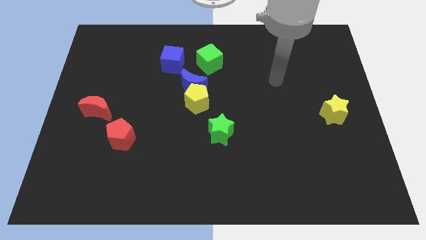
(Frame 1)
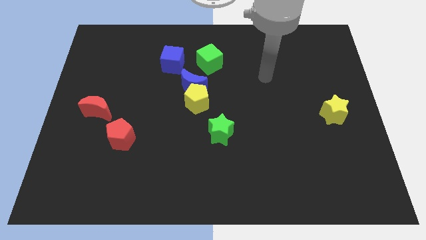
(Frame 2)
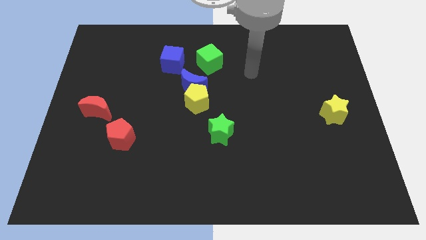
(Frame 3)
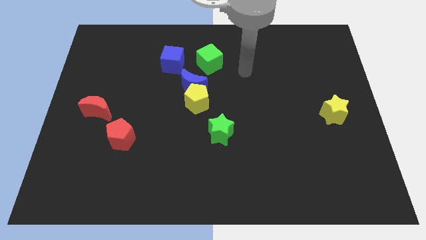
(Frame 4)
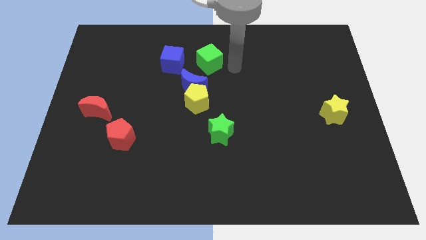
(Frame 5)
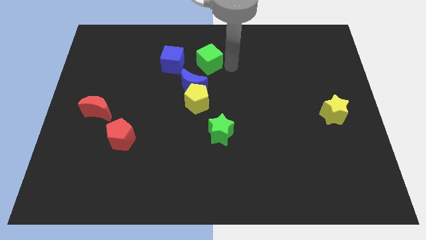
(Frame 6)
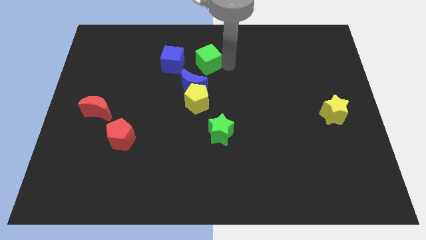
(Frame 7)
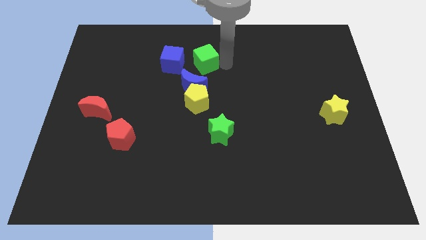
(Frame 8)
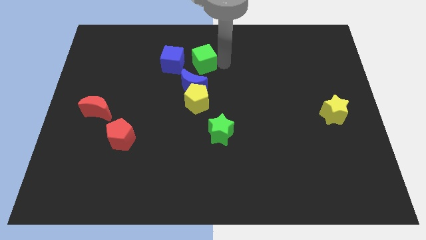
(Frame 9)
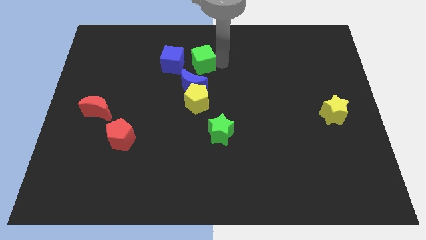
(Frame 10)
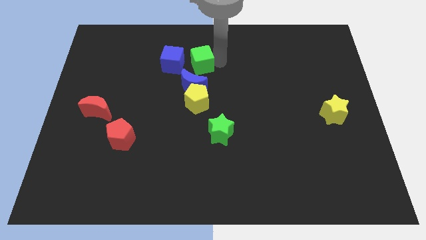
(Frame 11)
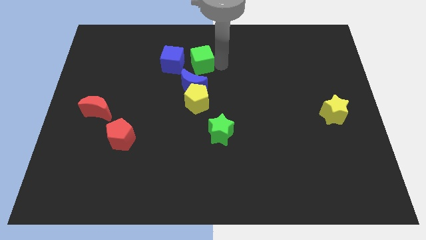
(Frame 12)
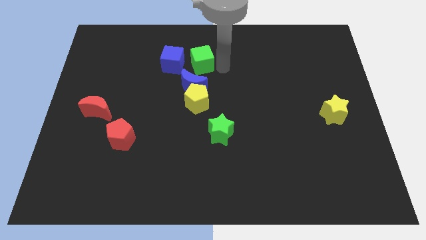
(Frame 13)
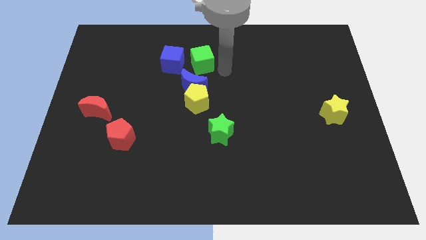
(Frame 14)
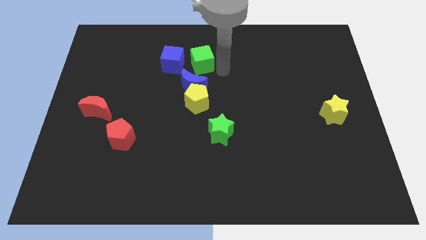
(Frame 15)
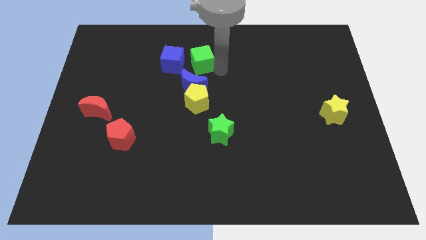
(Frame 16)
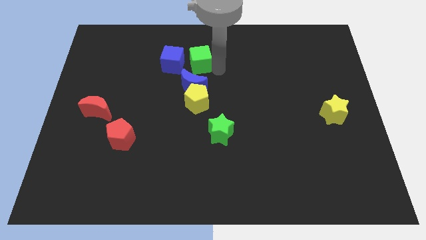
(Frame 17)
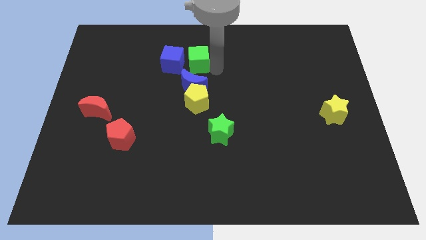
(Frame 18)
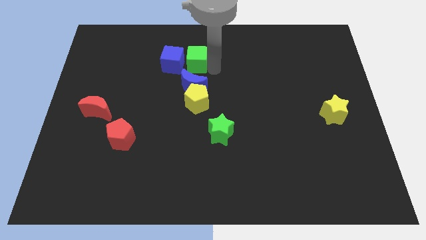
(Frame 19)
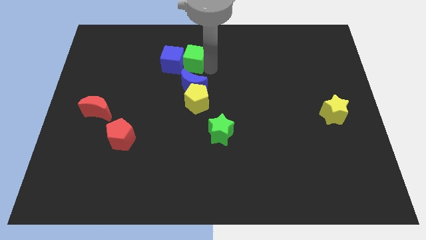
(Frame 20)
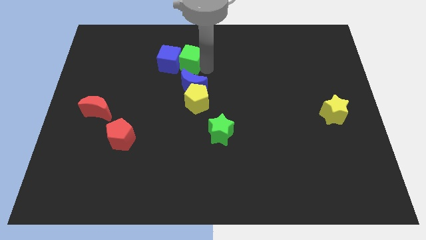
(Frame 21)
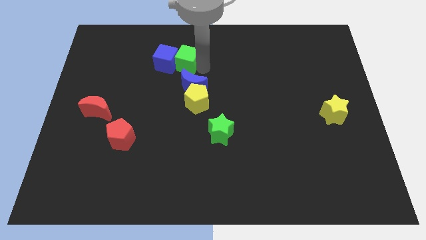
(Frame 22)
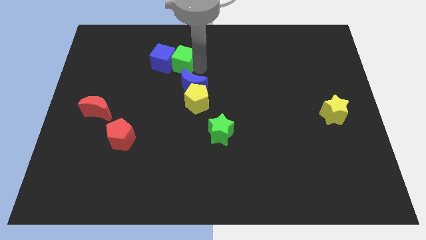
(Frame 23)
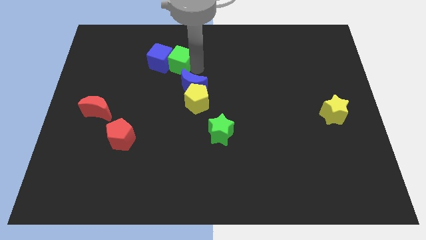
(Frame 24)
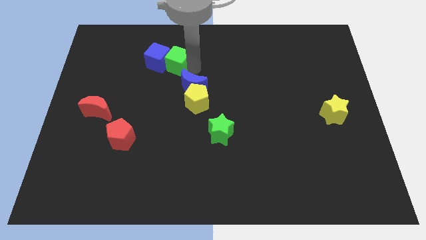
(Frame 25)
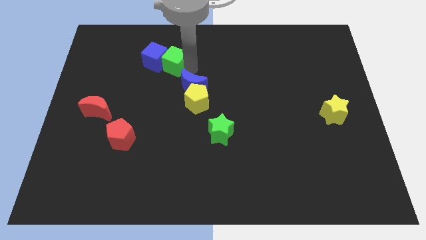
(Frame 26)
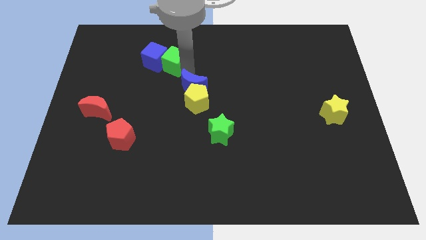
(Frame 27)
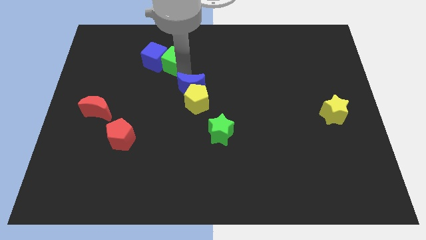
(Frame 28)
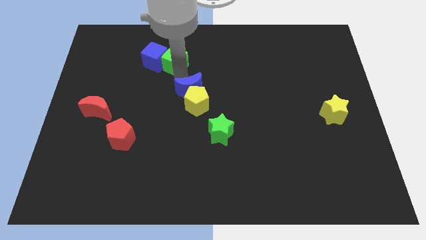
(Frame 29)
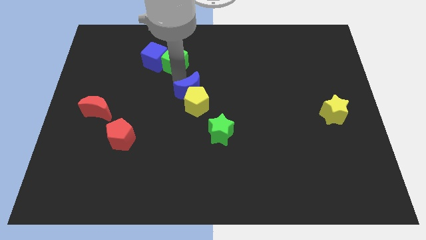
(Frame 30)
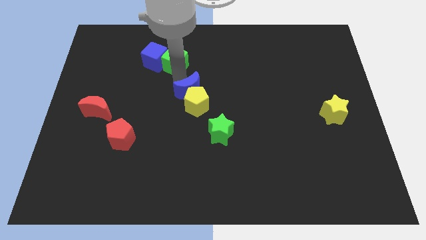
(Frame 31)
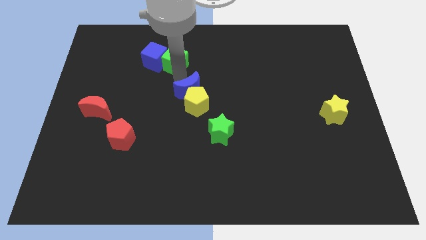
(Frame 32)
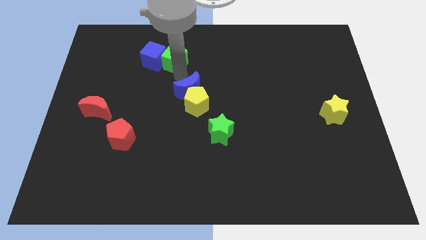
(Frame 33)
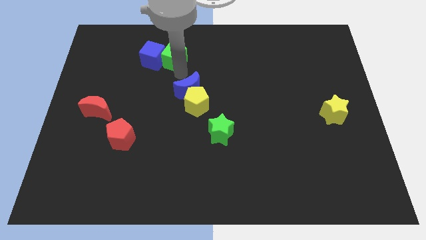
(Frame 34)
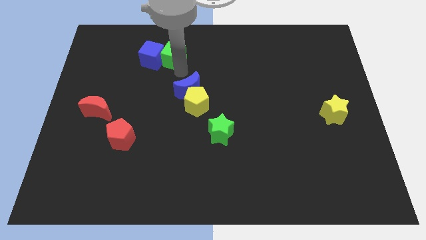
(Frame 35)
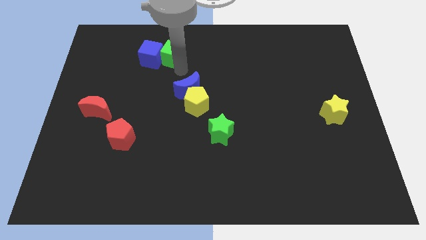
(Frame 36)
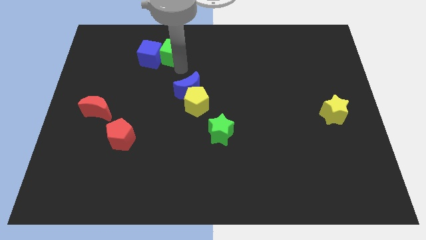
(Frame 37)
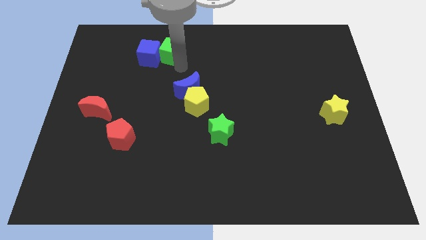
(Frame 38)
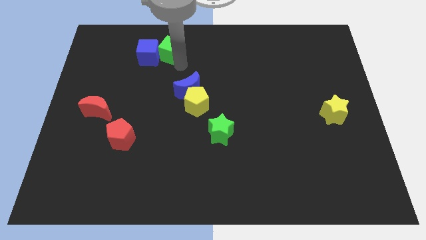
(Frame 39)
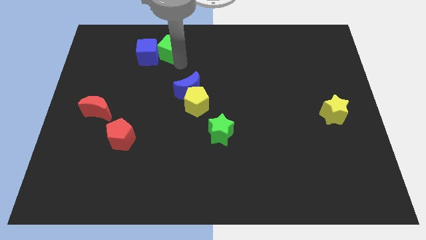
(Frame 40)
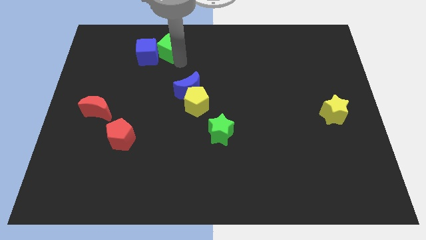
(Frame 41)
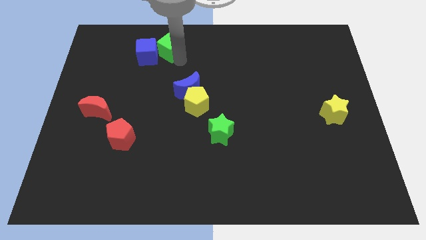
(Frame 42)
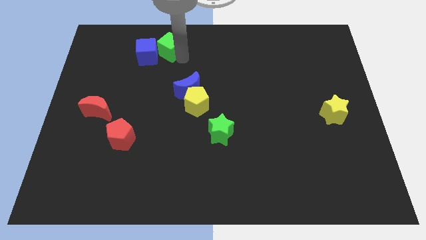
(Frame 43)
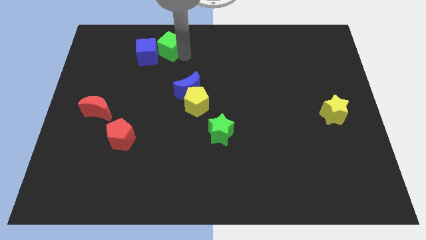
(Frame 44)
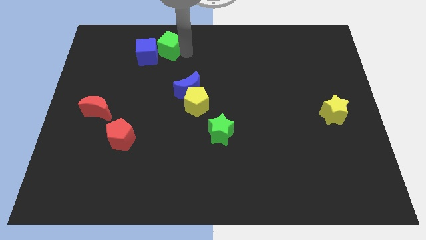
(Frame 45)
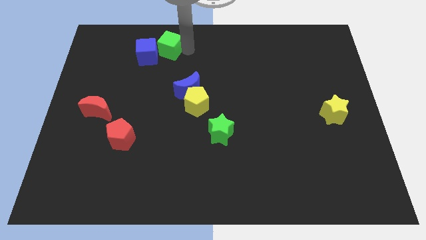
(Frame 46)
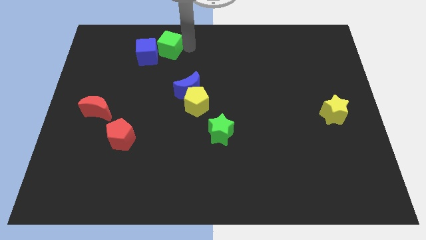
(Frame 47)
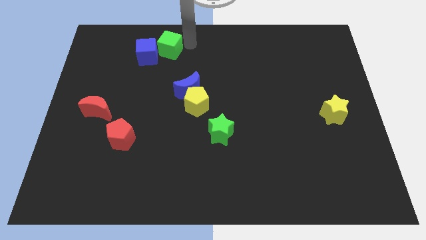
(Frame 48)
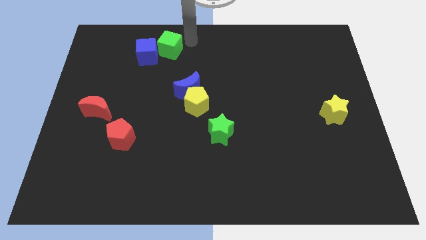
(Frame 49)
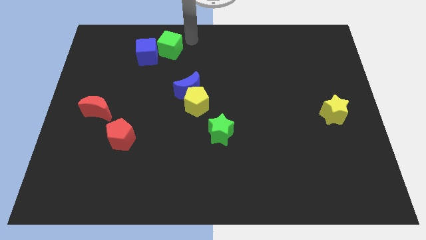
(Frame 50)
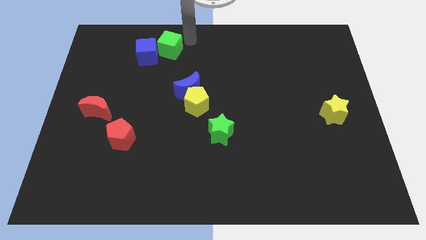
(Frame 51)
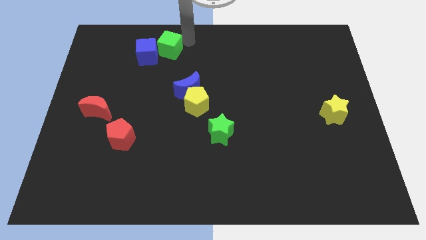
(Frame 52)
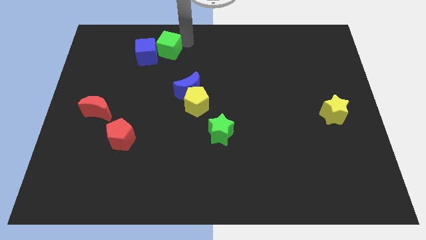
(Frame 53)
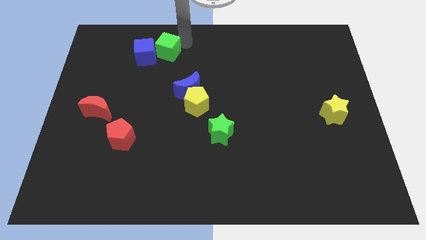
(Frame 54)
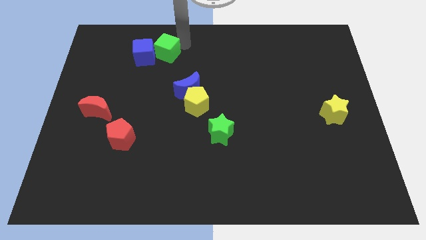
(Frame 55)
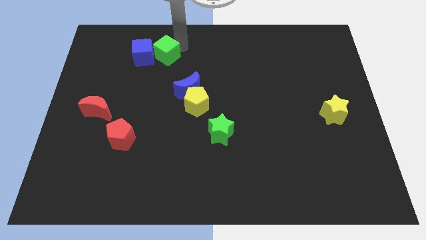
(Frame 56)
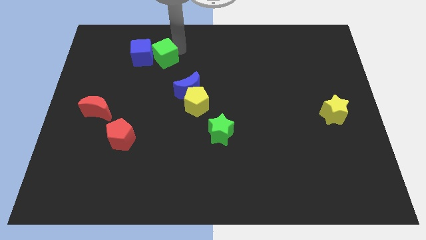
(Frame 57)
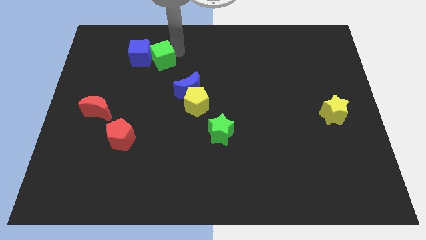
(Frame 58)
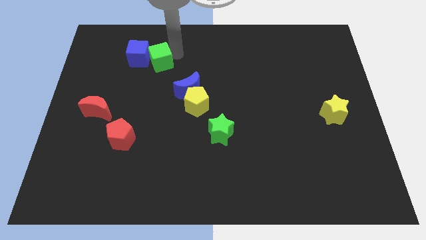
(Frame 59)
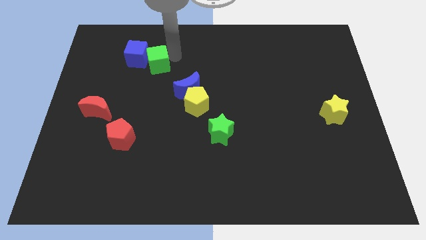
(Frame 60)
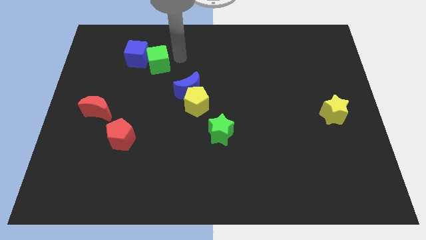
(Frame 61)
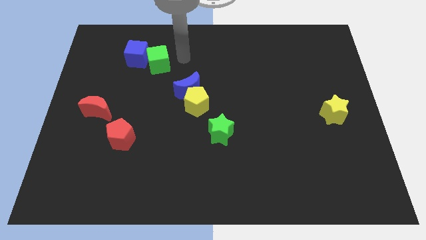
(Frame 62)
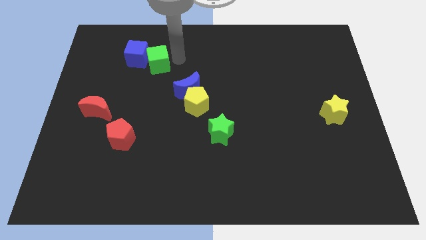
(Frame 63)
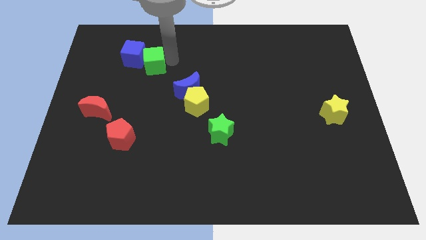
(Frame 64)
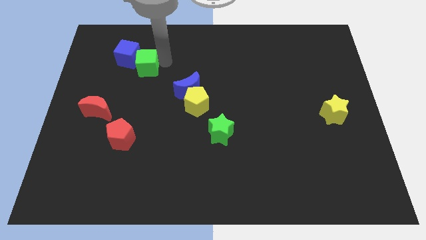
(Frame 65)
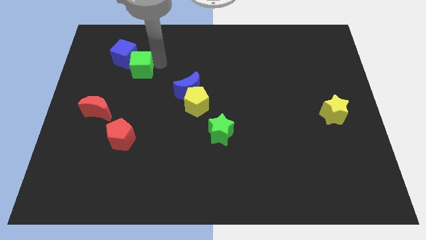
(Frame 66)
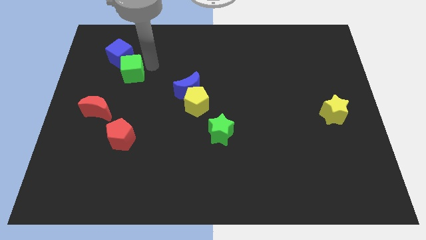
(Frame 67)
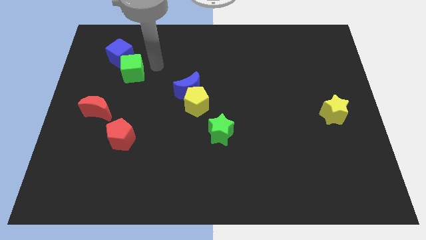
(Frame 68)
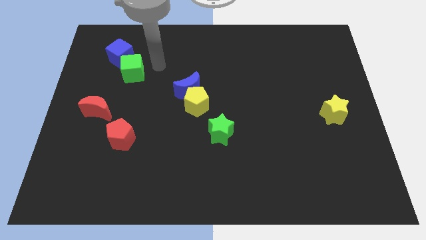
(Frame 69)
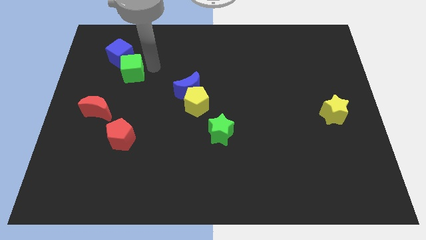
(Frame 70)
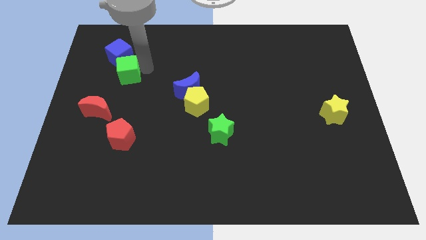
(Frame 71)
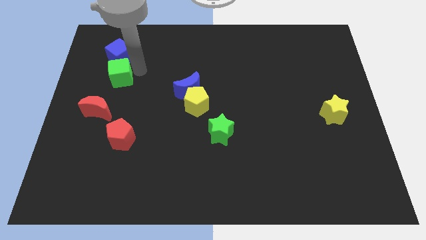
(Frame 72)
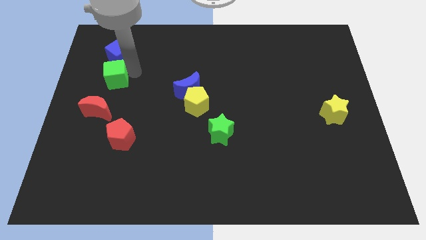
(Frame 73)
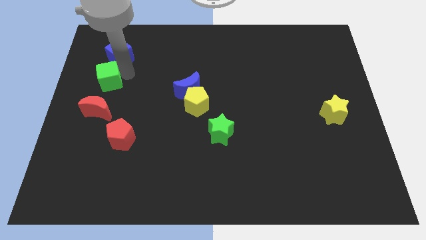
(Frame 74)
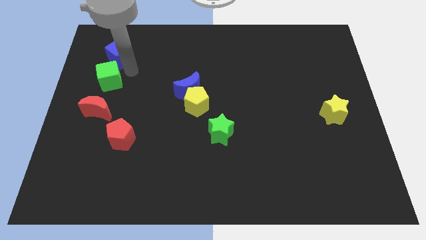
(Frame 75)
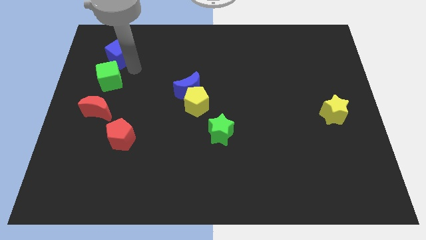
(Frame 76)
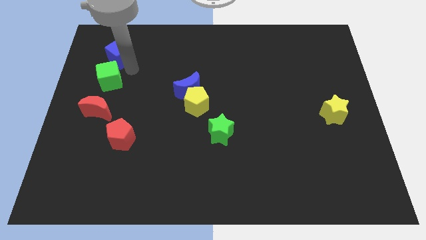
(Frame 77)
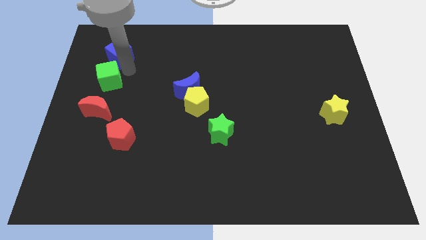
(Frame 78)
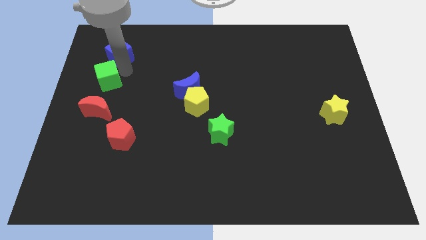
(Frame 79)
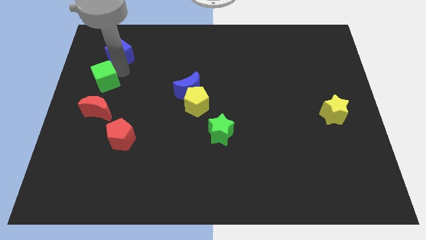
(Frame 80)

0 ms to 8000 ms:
put the green cube to the left side
